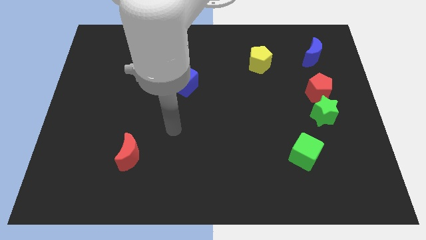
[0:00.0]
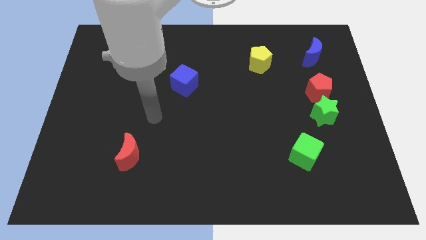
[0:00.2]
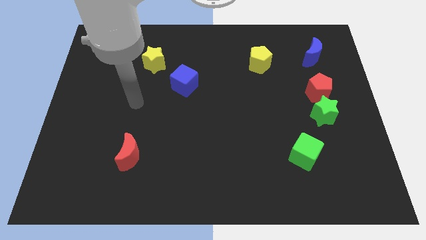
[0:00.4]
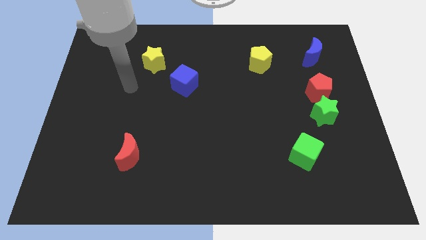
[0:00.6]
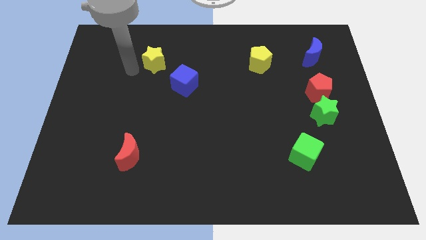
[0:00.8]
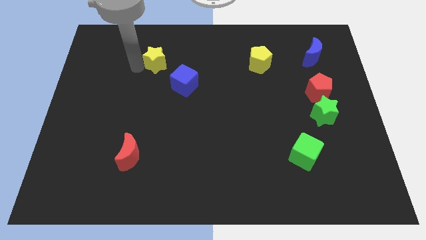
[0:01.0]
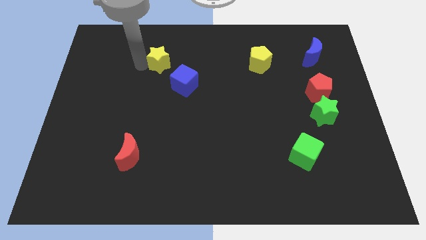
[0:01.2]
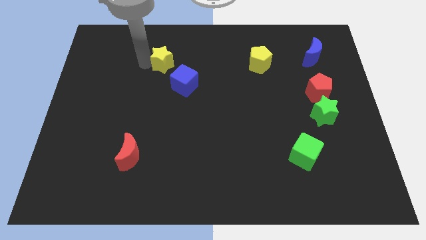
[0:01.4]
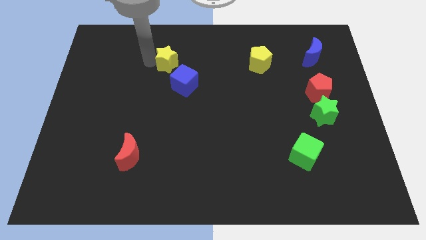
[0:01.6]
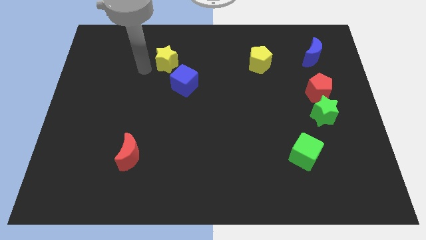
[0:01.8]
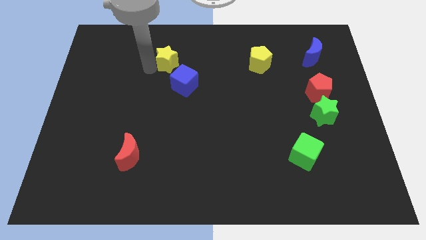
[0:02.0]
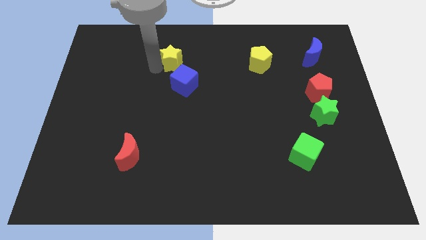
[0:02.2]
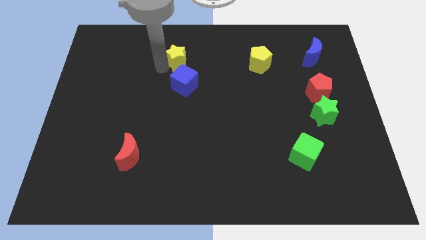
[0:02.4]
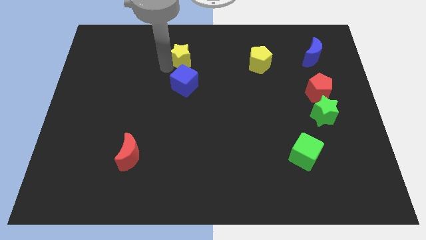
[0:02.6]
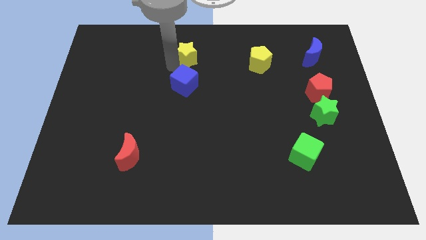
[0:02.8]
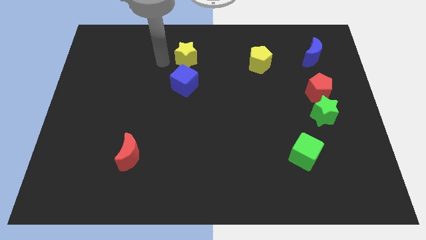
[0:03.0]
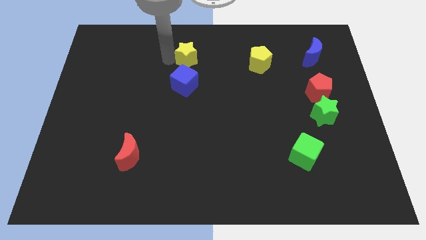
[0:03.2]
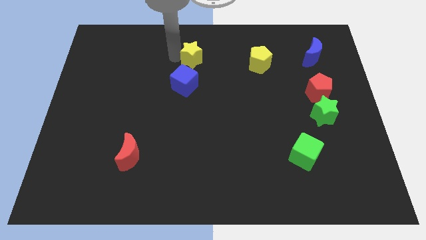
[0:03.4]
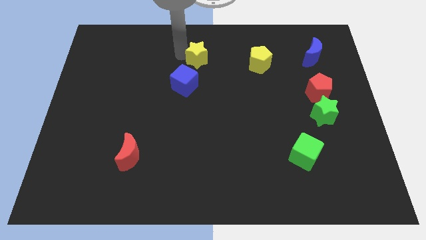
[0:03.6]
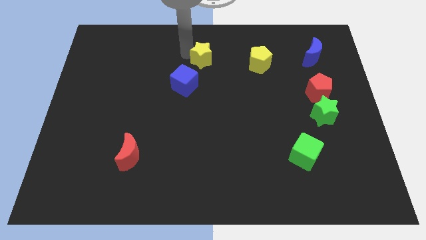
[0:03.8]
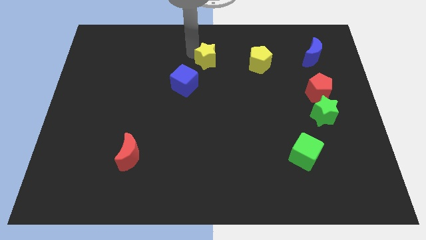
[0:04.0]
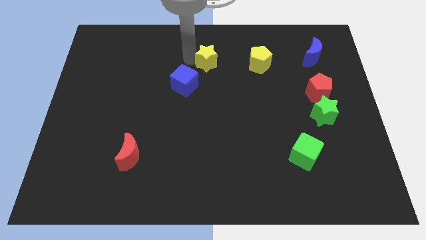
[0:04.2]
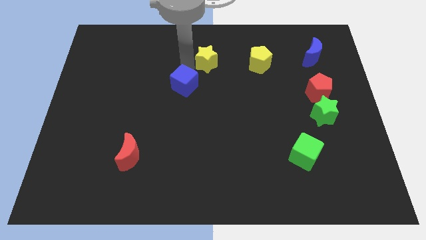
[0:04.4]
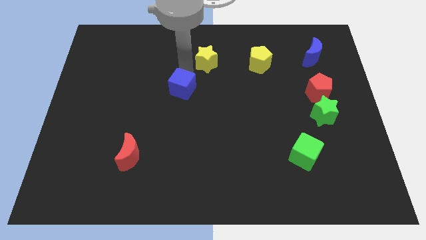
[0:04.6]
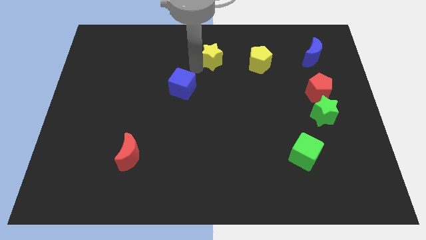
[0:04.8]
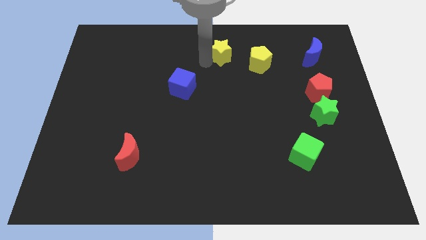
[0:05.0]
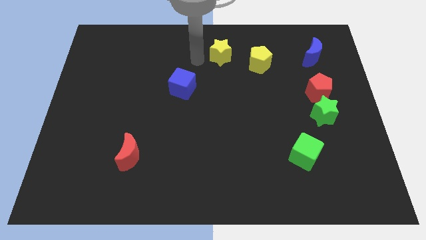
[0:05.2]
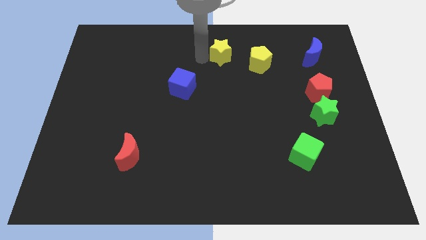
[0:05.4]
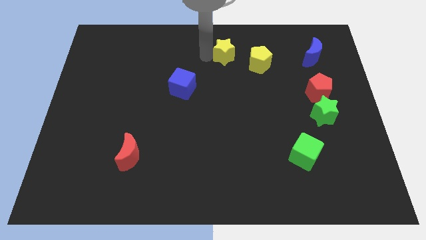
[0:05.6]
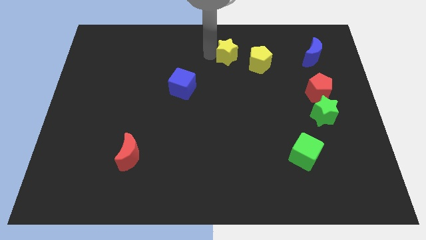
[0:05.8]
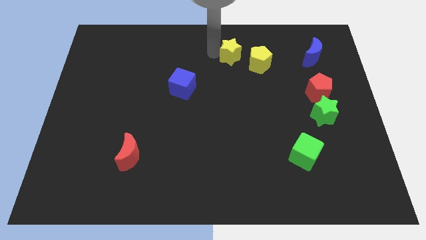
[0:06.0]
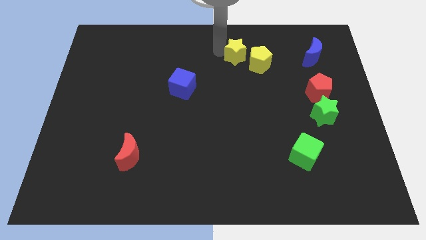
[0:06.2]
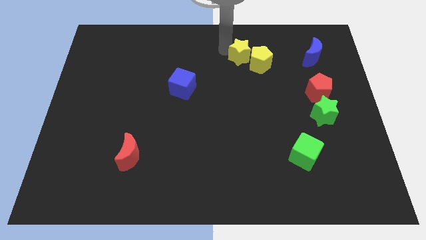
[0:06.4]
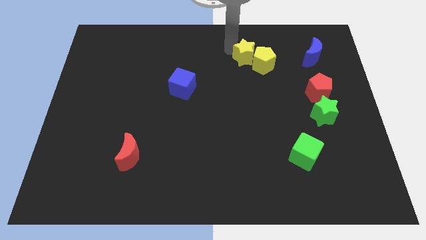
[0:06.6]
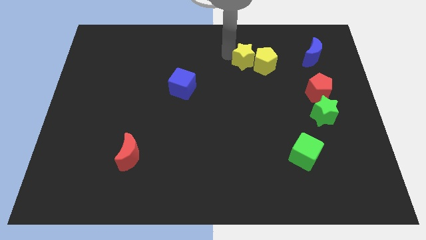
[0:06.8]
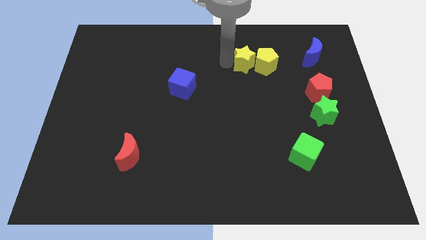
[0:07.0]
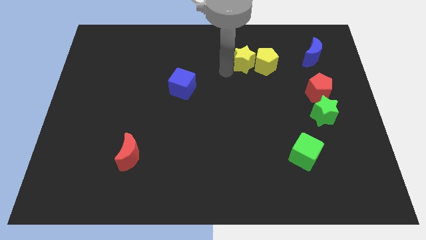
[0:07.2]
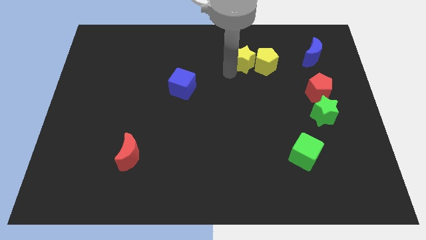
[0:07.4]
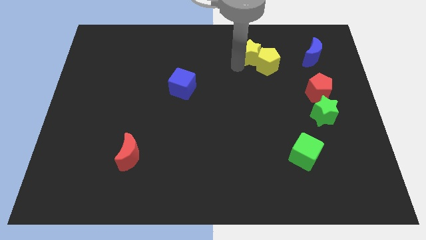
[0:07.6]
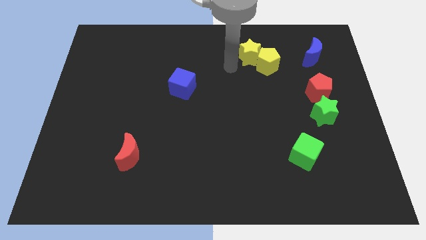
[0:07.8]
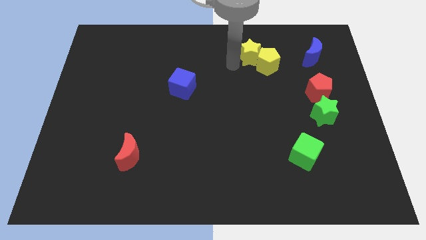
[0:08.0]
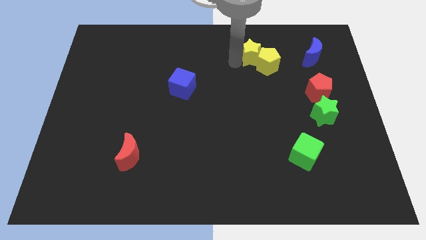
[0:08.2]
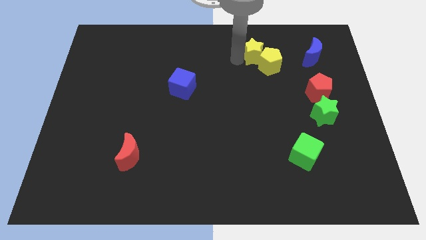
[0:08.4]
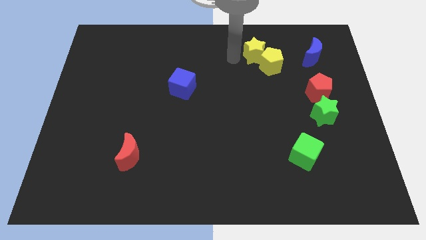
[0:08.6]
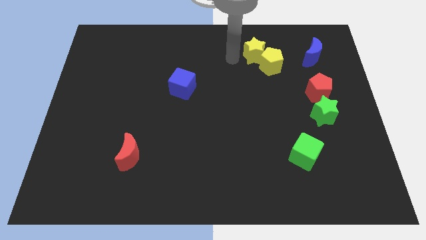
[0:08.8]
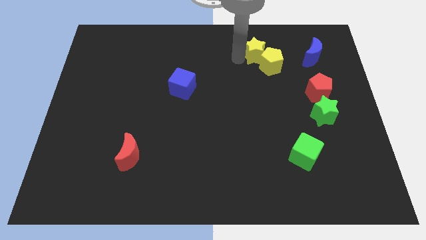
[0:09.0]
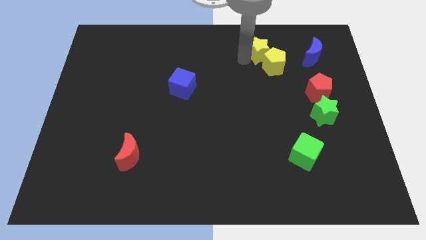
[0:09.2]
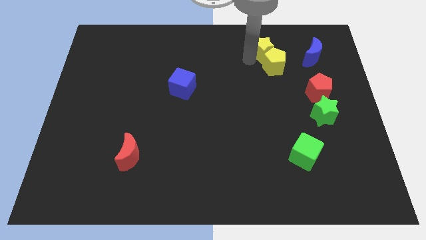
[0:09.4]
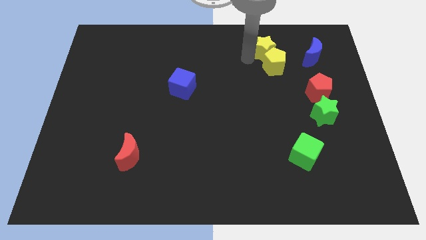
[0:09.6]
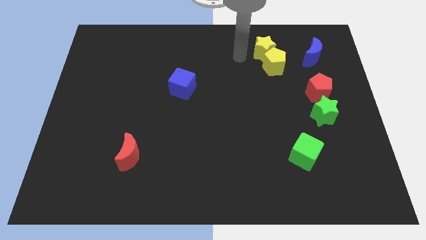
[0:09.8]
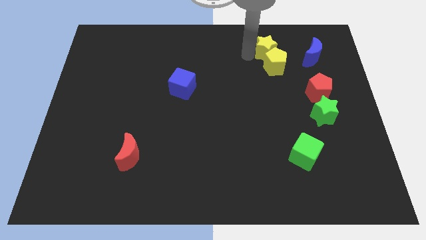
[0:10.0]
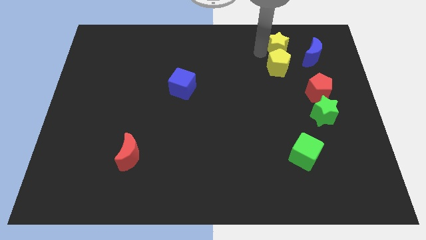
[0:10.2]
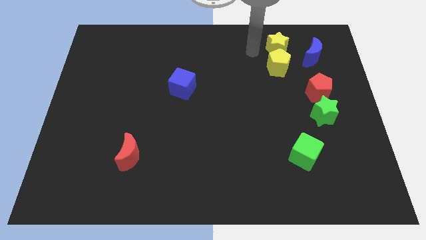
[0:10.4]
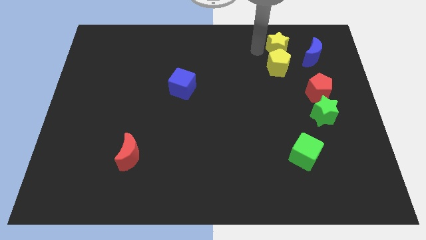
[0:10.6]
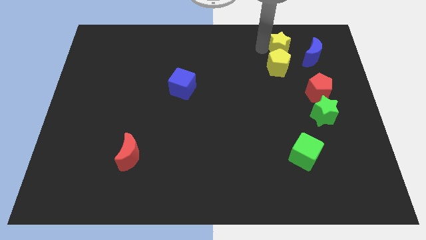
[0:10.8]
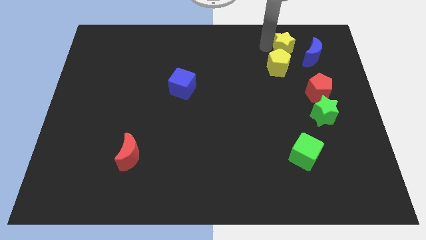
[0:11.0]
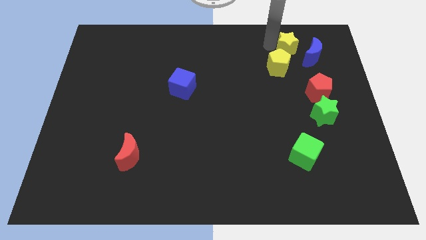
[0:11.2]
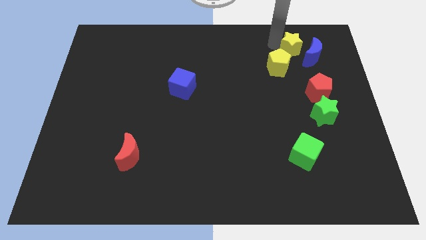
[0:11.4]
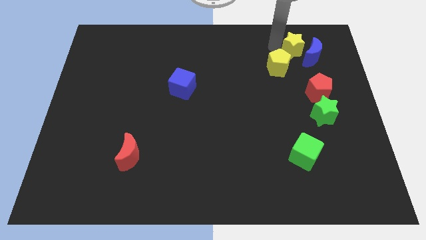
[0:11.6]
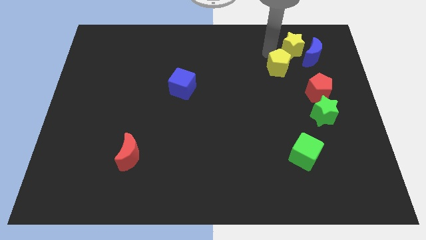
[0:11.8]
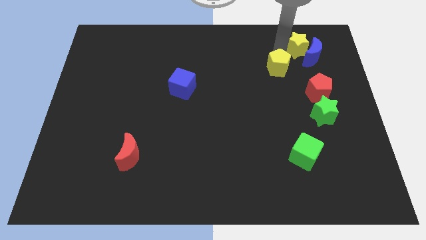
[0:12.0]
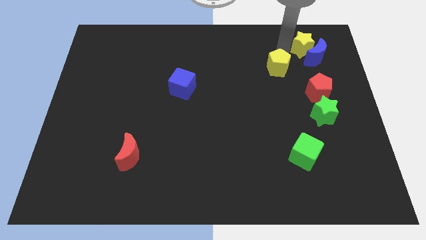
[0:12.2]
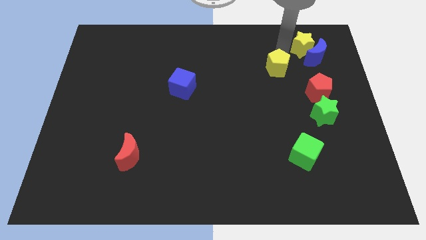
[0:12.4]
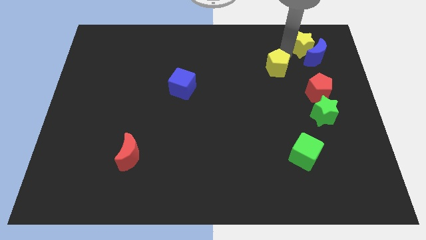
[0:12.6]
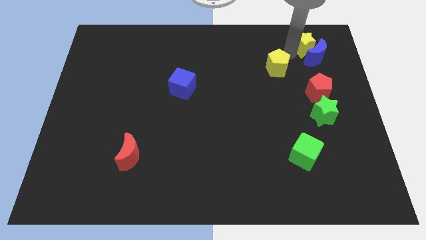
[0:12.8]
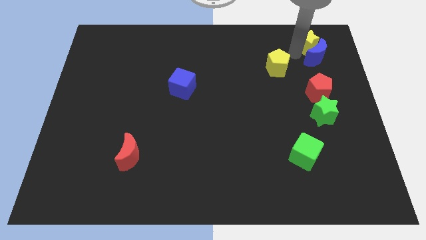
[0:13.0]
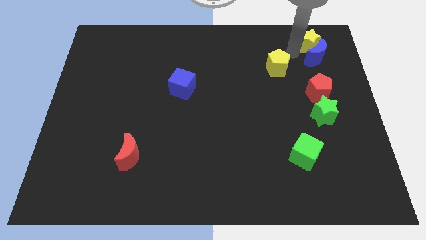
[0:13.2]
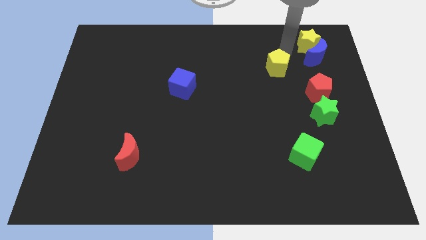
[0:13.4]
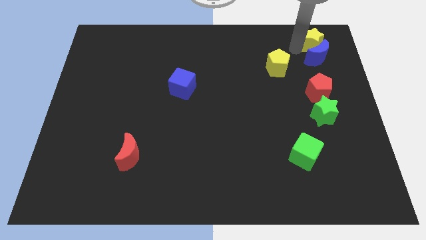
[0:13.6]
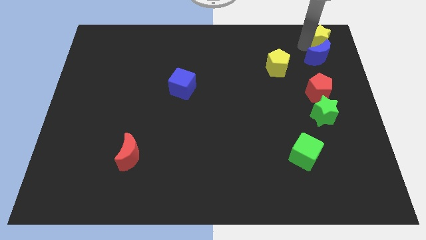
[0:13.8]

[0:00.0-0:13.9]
slide the yellow star to the top right corner

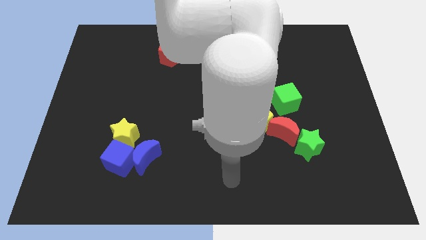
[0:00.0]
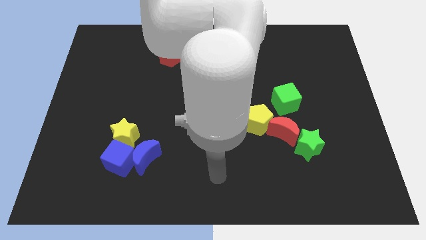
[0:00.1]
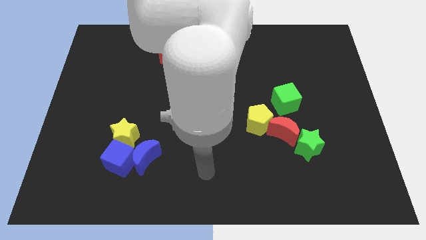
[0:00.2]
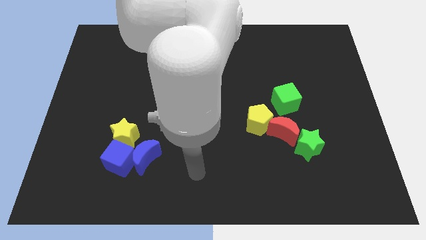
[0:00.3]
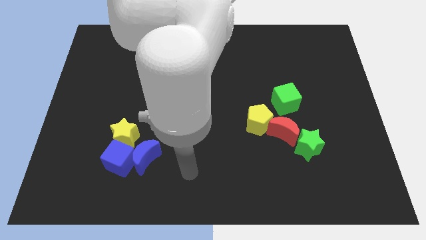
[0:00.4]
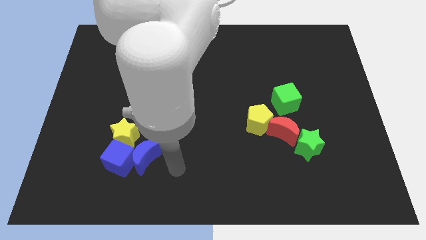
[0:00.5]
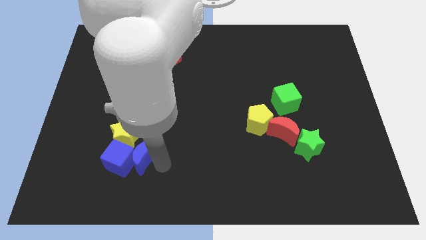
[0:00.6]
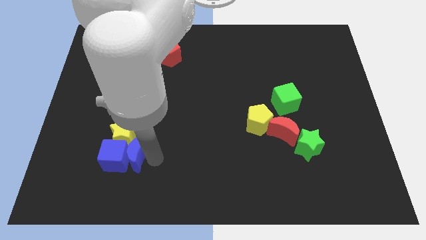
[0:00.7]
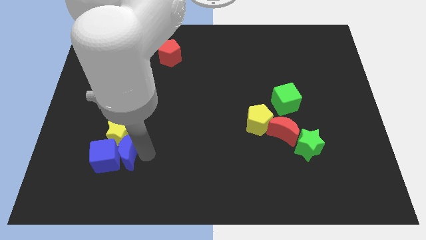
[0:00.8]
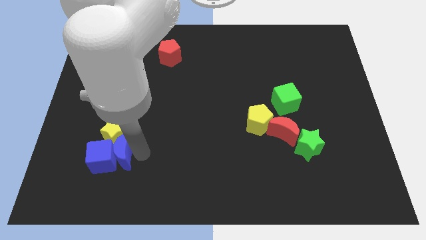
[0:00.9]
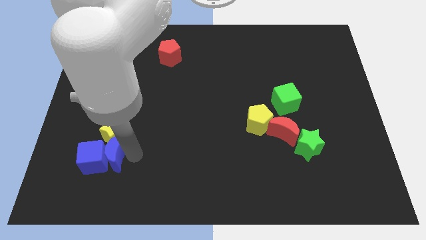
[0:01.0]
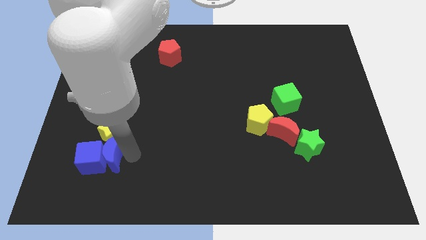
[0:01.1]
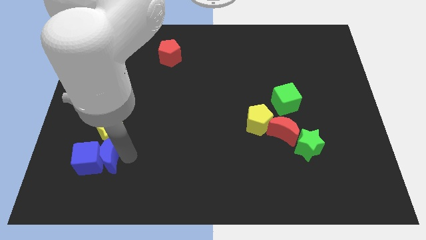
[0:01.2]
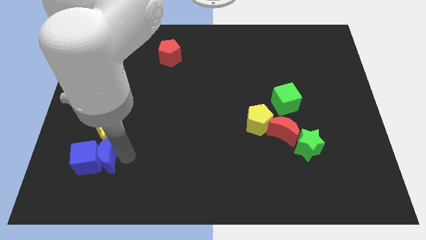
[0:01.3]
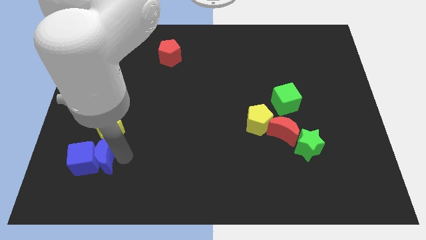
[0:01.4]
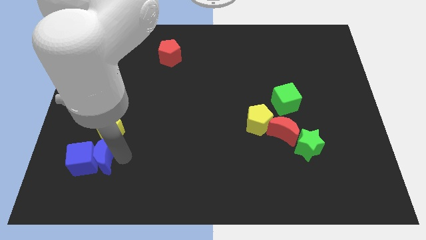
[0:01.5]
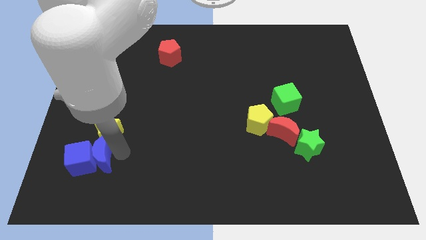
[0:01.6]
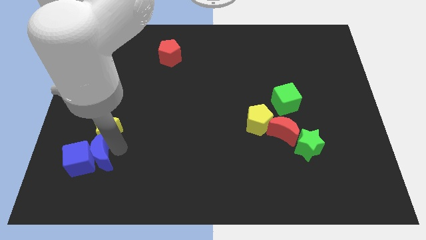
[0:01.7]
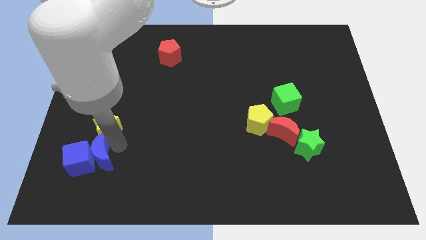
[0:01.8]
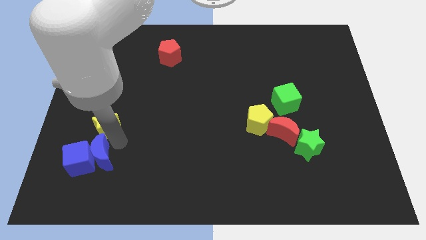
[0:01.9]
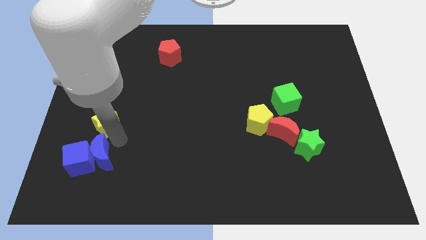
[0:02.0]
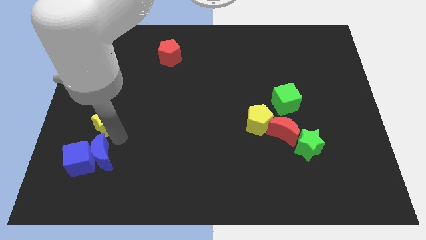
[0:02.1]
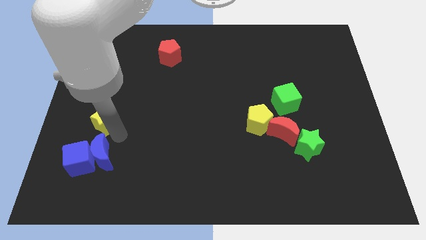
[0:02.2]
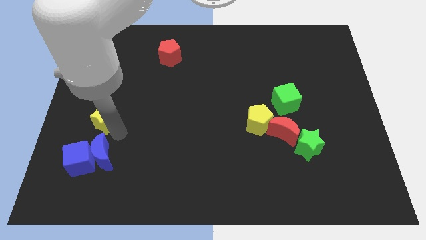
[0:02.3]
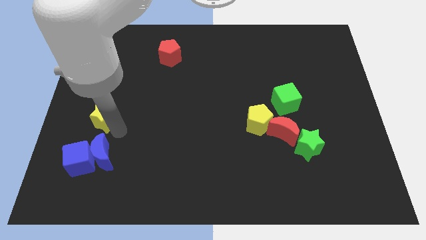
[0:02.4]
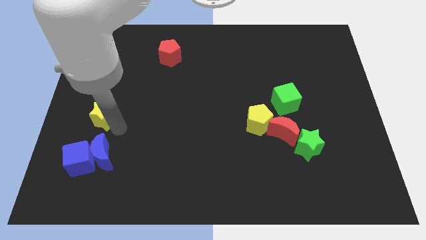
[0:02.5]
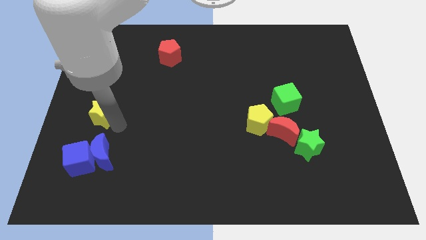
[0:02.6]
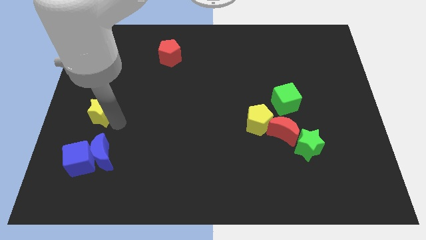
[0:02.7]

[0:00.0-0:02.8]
push the yellow star to the left side
